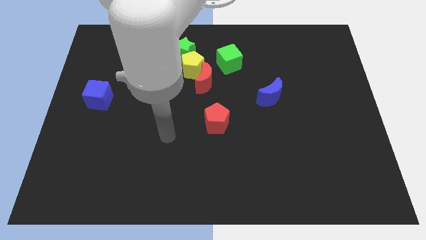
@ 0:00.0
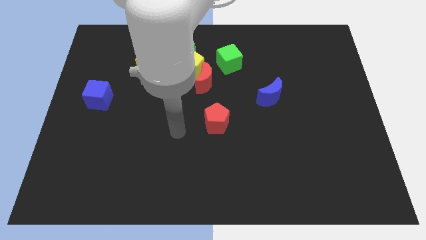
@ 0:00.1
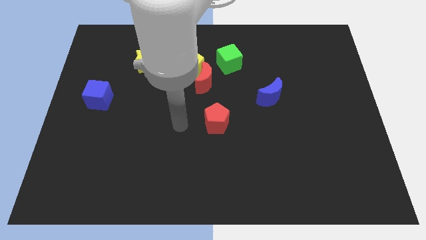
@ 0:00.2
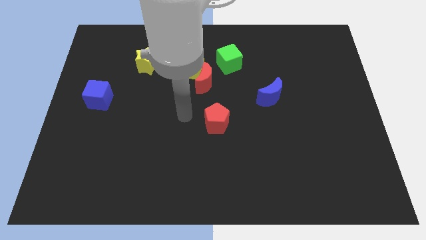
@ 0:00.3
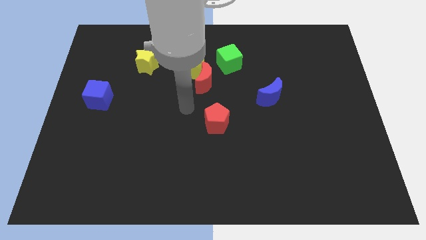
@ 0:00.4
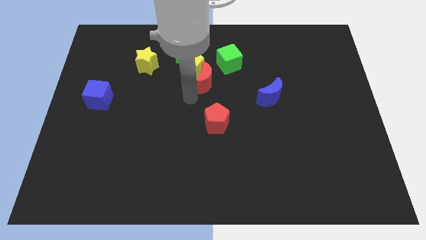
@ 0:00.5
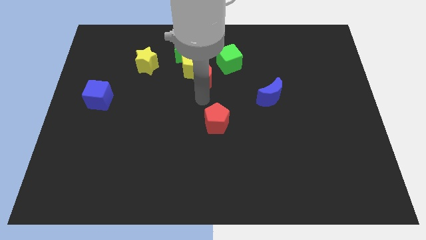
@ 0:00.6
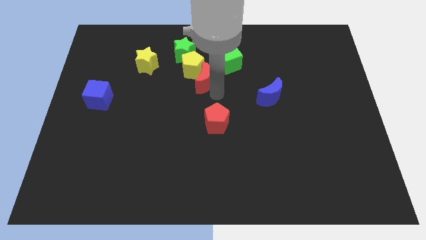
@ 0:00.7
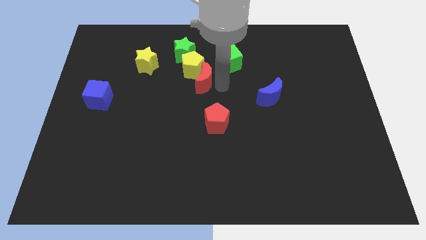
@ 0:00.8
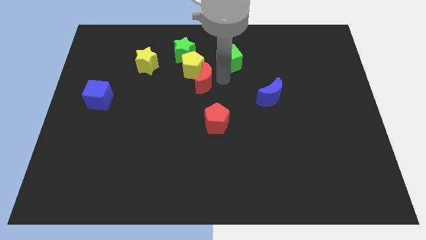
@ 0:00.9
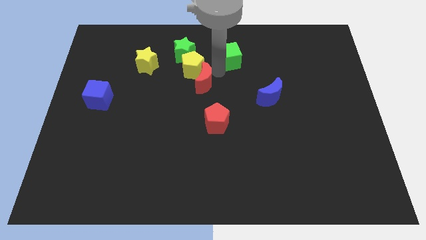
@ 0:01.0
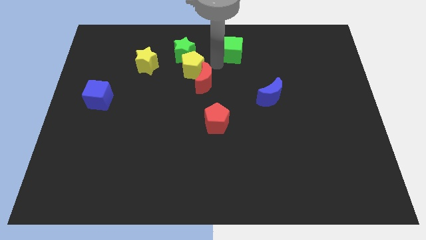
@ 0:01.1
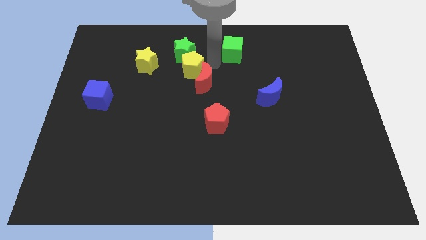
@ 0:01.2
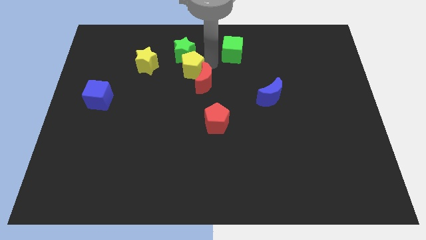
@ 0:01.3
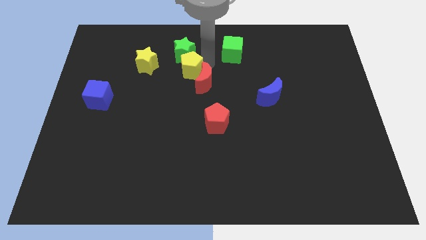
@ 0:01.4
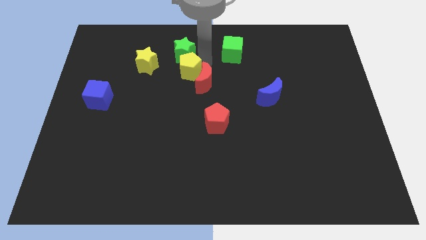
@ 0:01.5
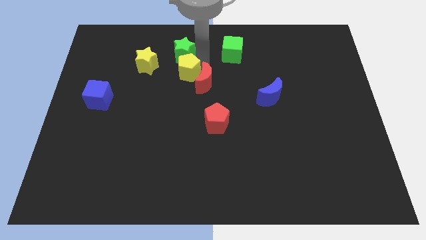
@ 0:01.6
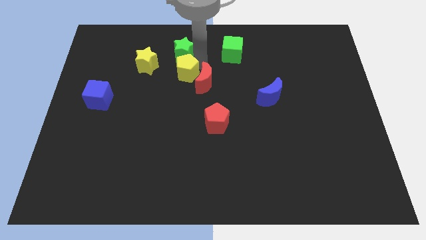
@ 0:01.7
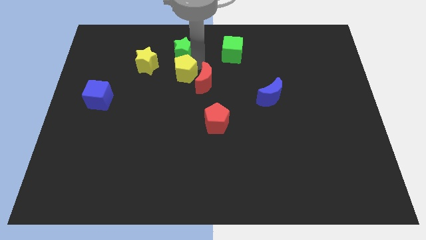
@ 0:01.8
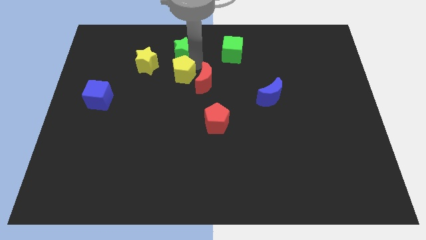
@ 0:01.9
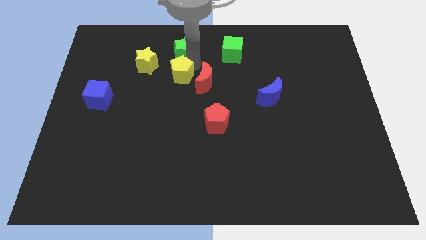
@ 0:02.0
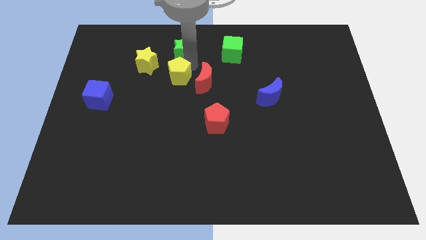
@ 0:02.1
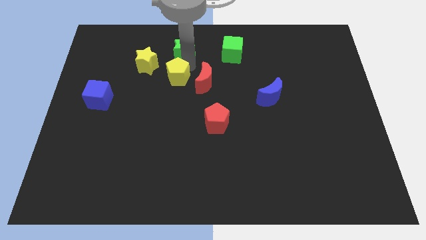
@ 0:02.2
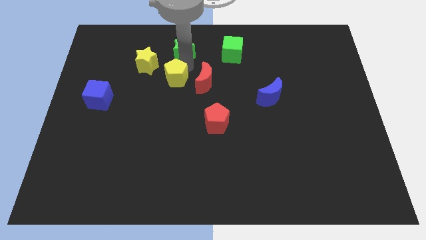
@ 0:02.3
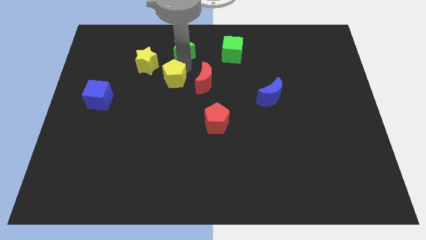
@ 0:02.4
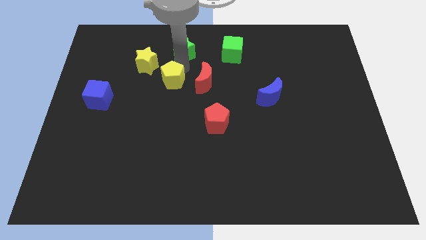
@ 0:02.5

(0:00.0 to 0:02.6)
separate the yellow pentagon from the clump

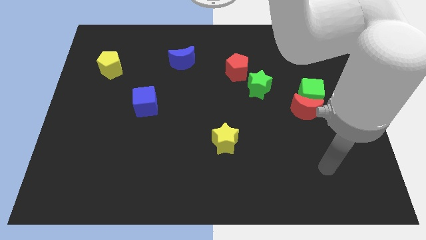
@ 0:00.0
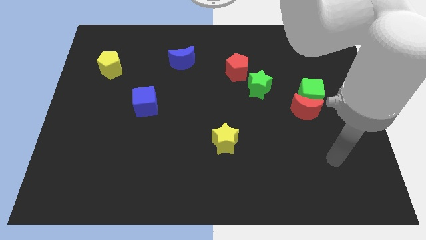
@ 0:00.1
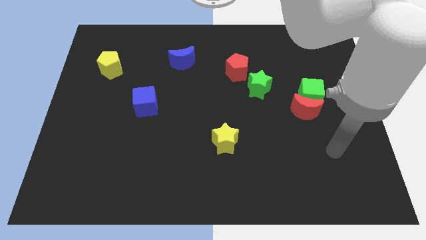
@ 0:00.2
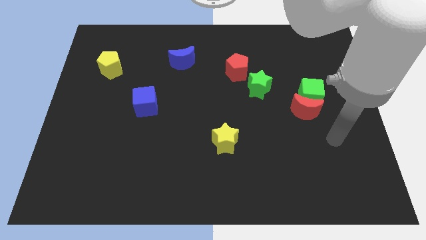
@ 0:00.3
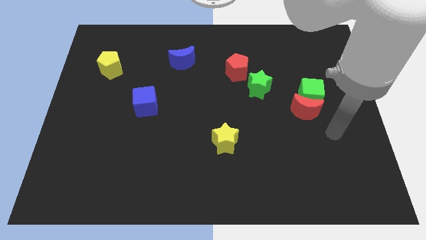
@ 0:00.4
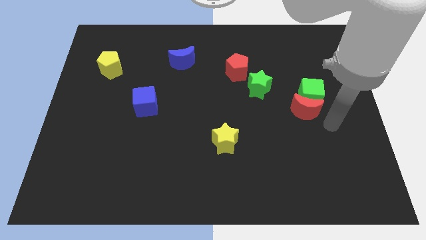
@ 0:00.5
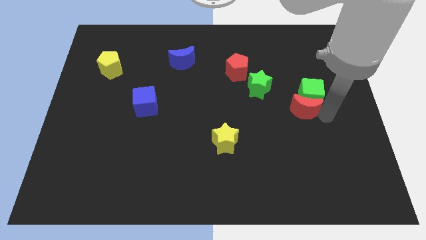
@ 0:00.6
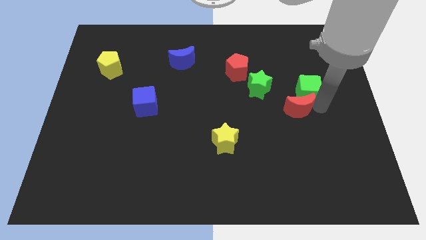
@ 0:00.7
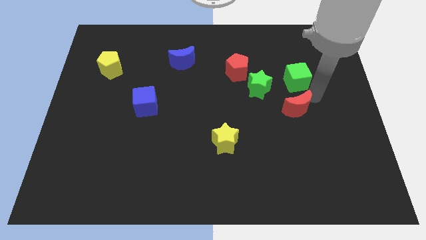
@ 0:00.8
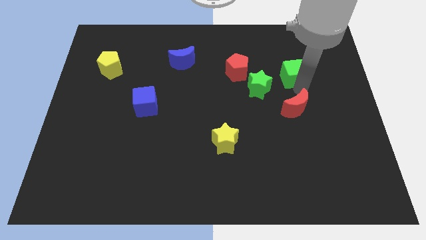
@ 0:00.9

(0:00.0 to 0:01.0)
move the red moon away from the green cube

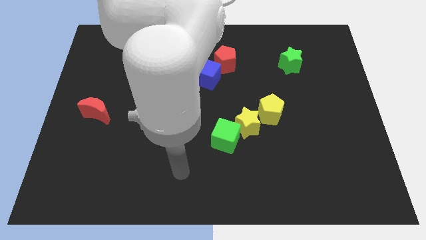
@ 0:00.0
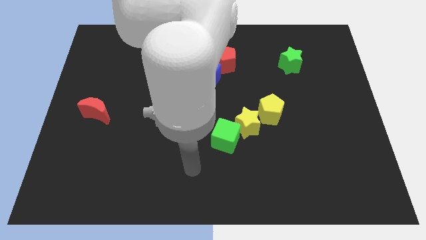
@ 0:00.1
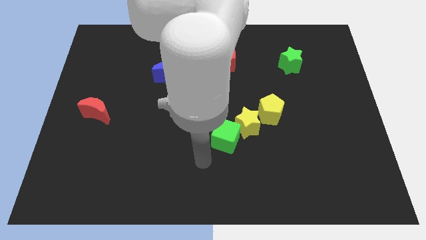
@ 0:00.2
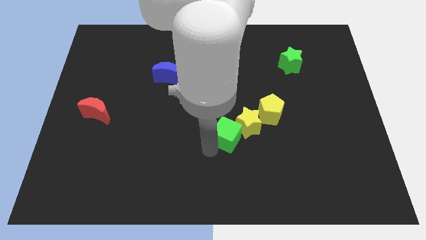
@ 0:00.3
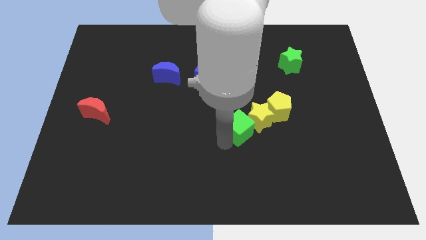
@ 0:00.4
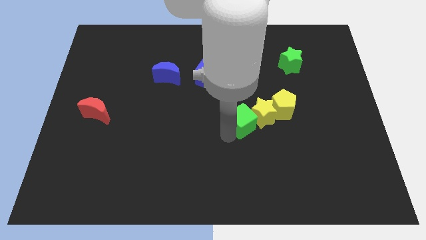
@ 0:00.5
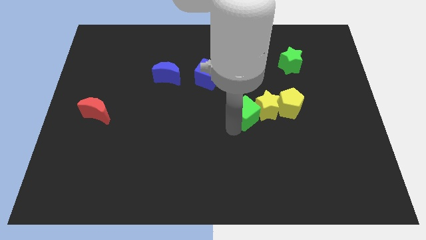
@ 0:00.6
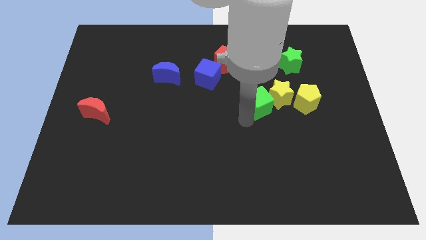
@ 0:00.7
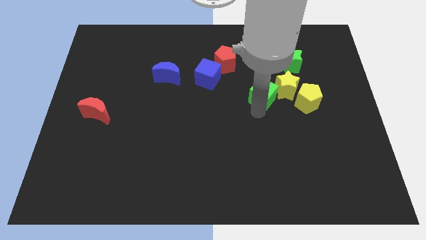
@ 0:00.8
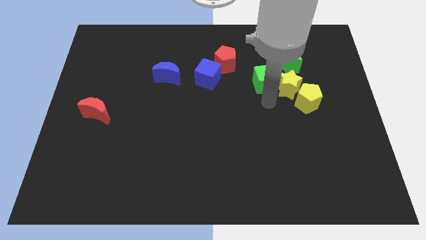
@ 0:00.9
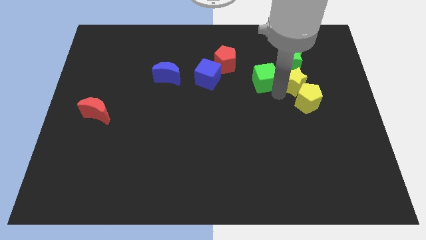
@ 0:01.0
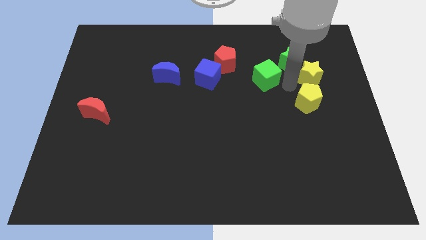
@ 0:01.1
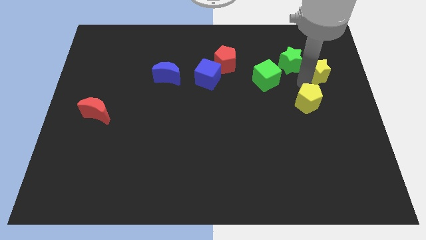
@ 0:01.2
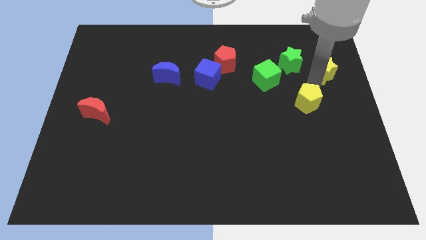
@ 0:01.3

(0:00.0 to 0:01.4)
pull the yellow pentagon apart from the yellow star

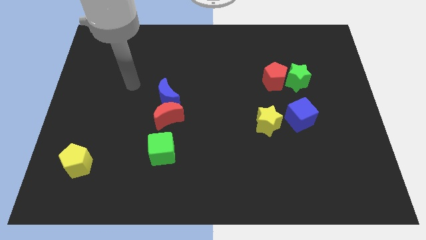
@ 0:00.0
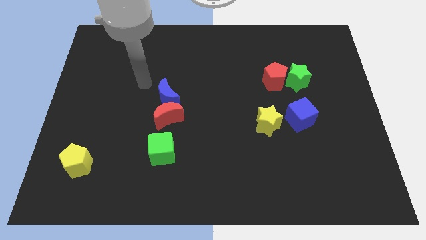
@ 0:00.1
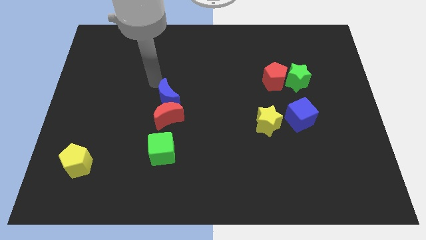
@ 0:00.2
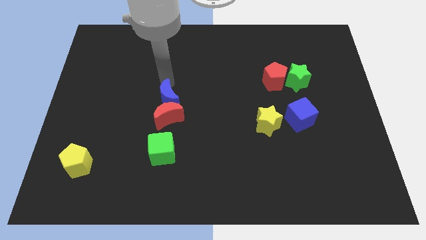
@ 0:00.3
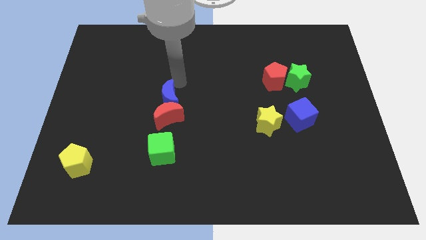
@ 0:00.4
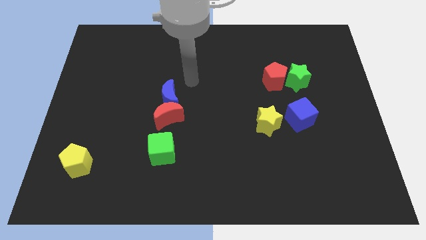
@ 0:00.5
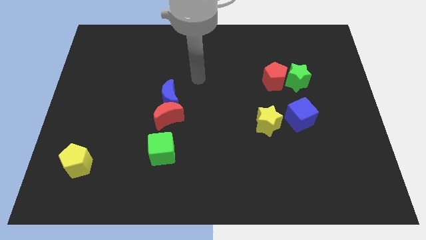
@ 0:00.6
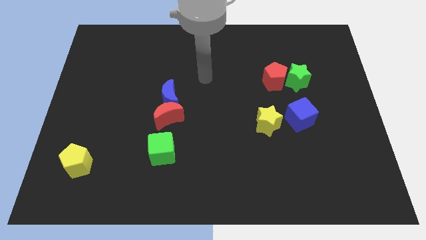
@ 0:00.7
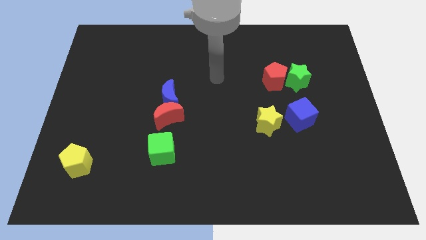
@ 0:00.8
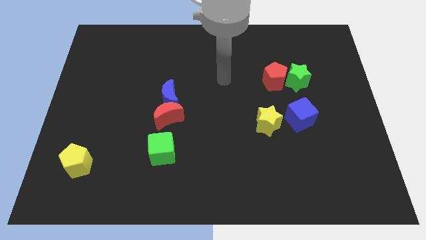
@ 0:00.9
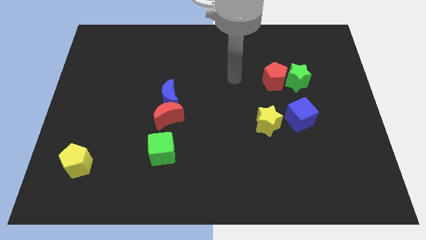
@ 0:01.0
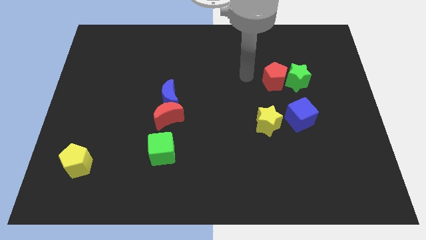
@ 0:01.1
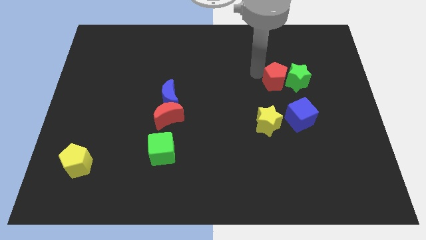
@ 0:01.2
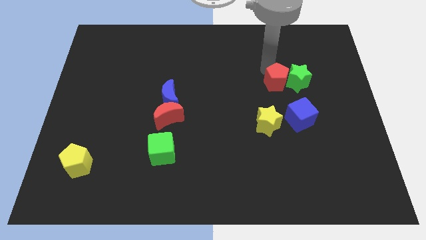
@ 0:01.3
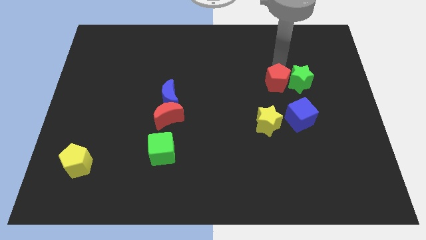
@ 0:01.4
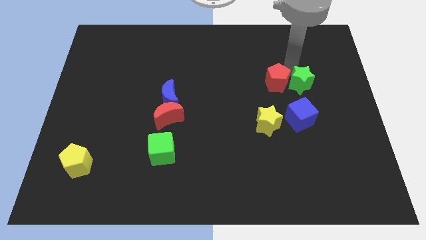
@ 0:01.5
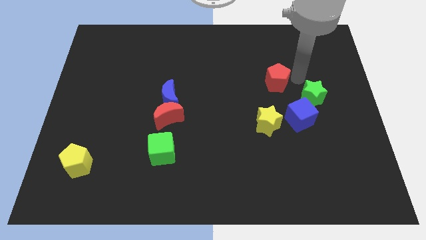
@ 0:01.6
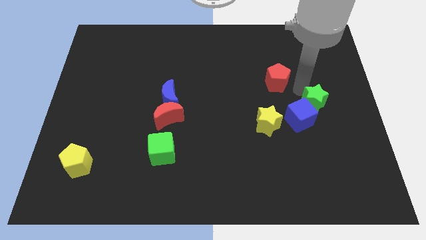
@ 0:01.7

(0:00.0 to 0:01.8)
separate the red pentagon from the green star

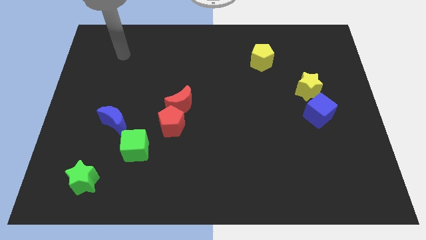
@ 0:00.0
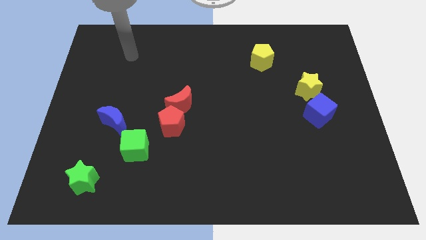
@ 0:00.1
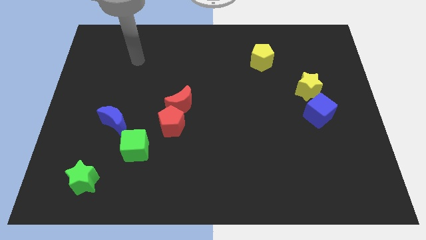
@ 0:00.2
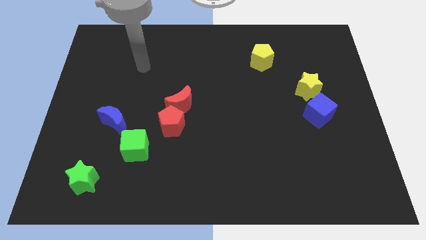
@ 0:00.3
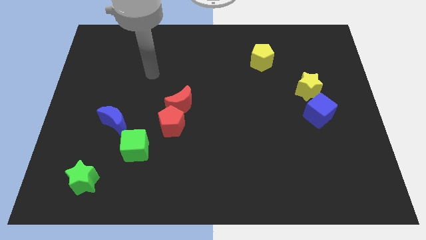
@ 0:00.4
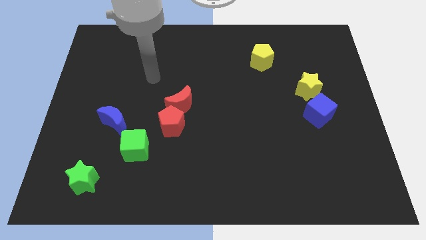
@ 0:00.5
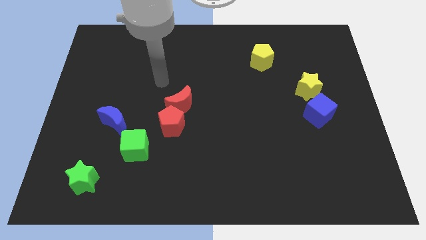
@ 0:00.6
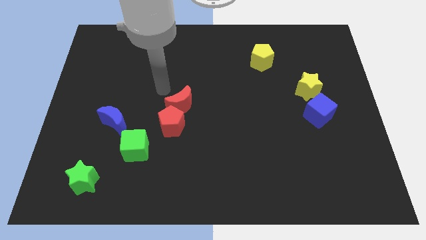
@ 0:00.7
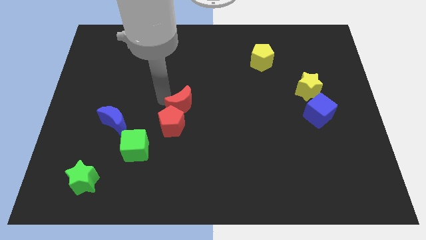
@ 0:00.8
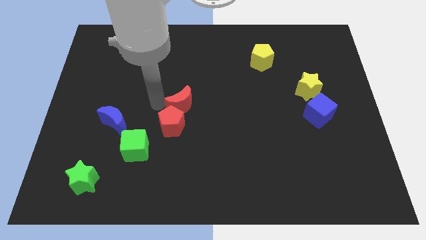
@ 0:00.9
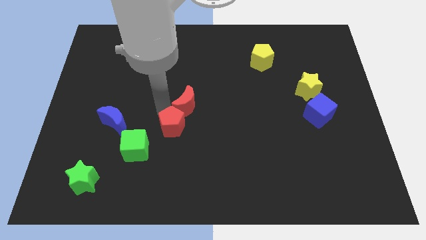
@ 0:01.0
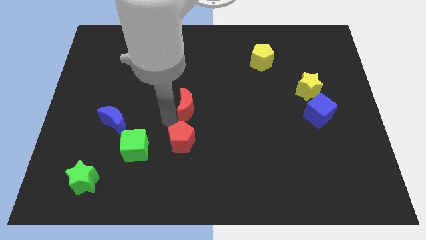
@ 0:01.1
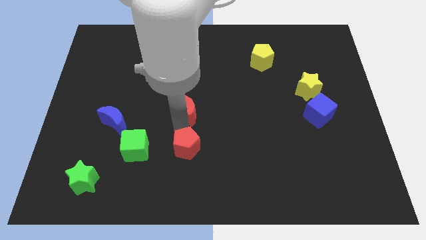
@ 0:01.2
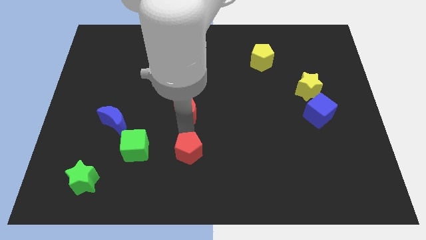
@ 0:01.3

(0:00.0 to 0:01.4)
separate the red moon from the red pentagon

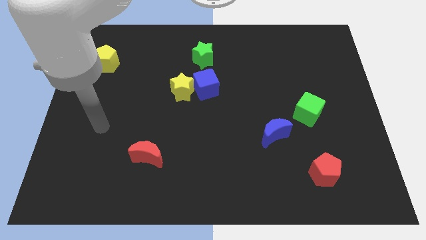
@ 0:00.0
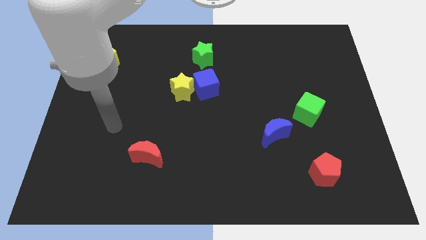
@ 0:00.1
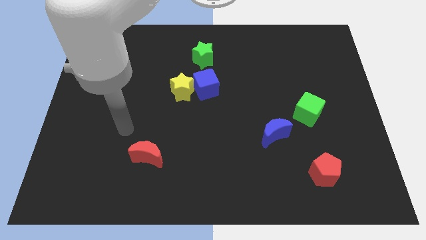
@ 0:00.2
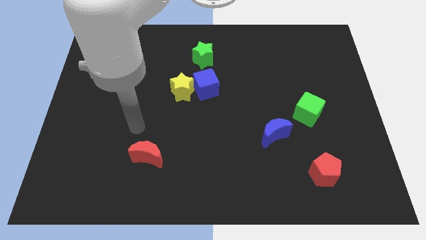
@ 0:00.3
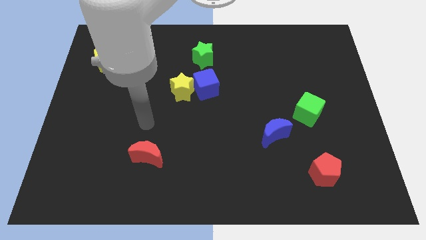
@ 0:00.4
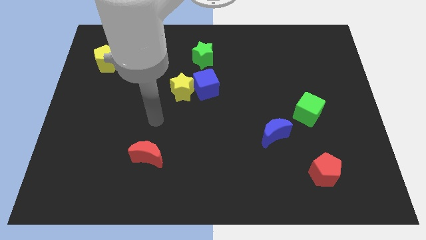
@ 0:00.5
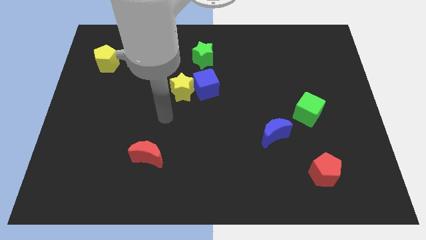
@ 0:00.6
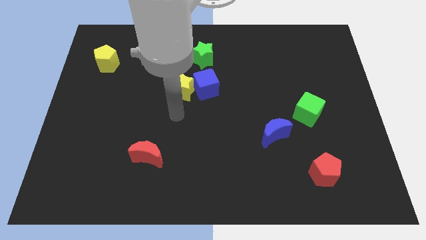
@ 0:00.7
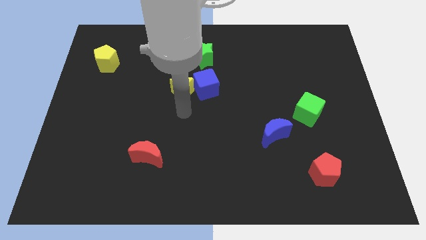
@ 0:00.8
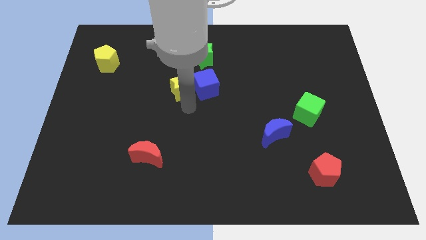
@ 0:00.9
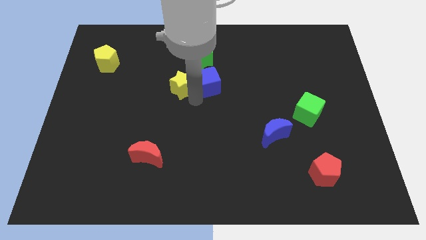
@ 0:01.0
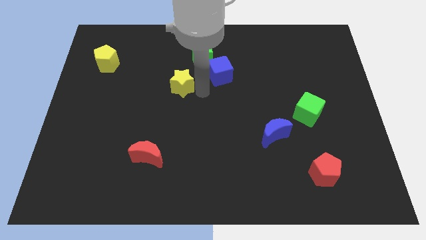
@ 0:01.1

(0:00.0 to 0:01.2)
separate the yellow star from the blue cube
